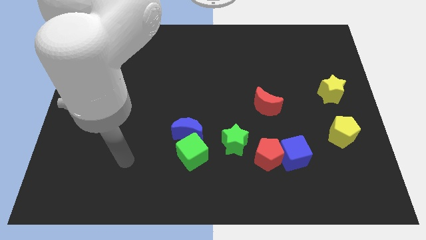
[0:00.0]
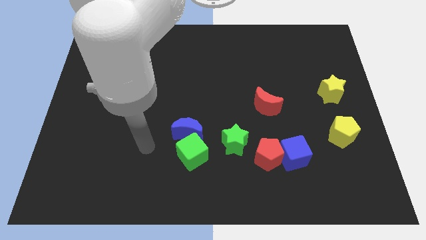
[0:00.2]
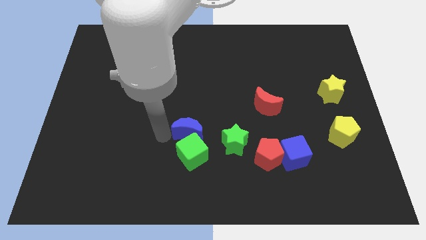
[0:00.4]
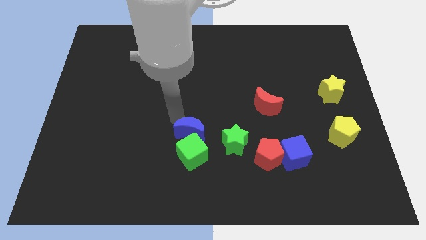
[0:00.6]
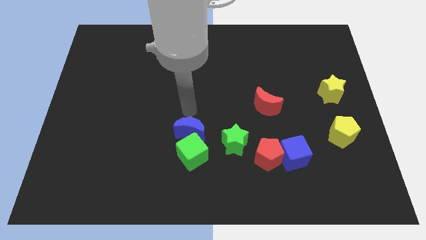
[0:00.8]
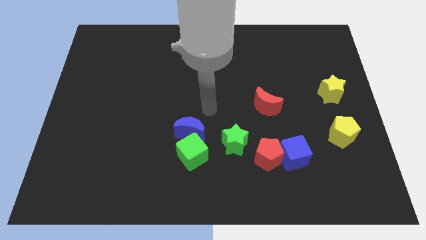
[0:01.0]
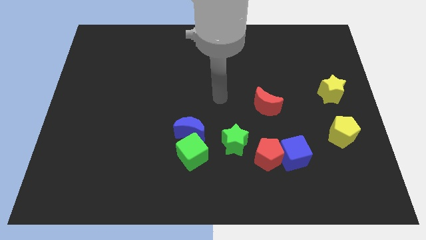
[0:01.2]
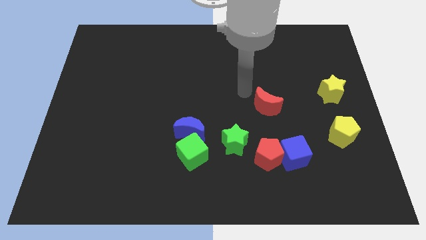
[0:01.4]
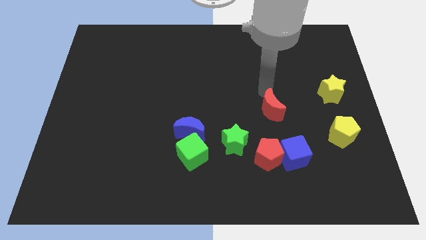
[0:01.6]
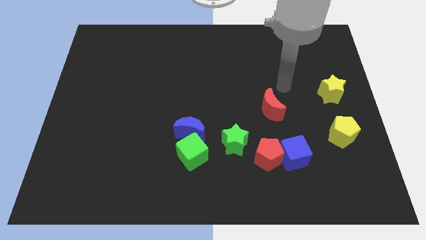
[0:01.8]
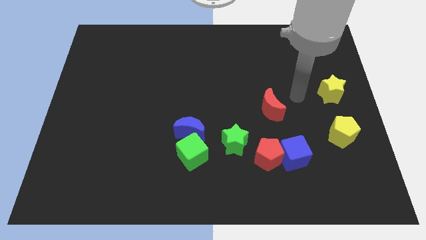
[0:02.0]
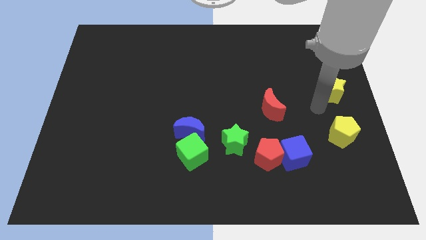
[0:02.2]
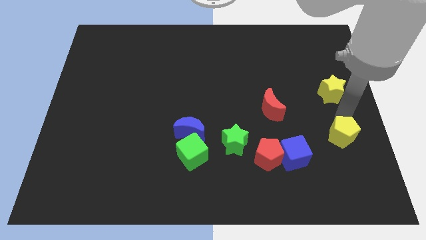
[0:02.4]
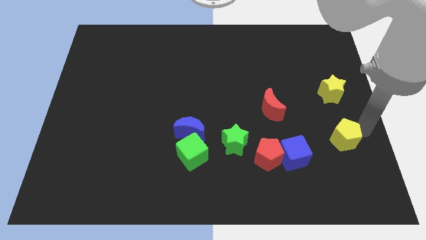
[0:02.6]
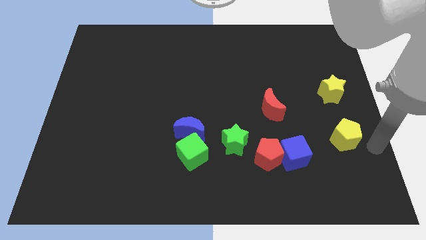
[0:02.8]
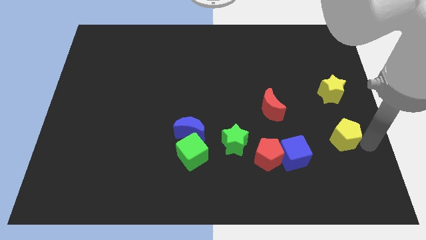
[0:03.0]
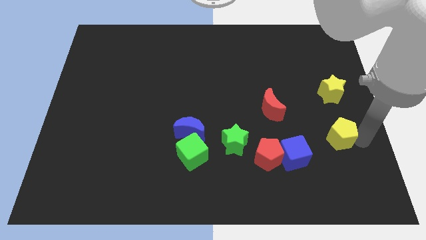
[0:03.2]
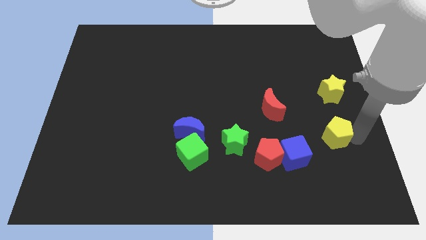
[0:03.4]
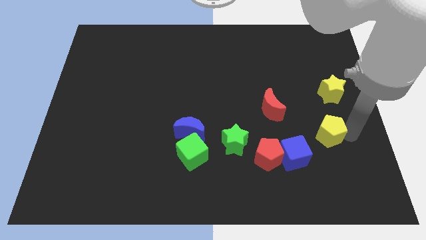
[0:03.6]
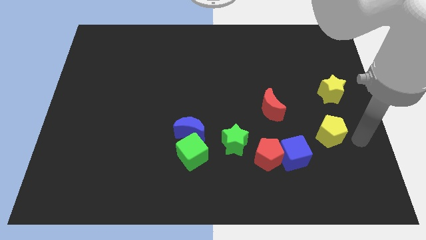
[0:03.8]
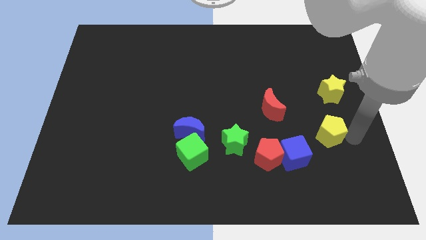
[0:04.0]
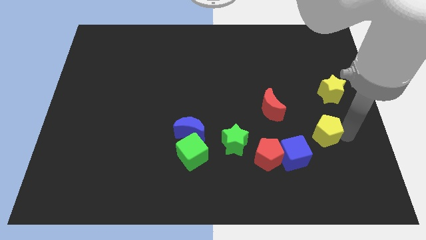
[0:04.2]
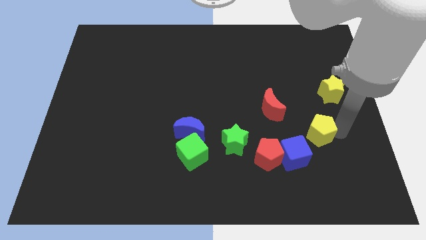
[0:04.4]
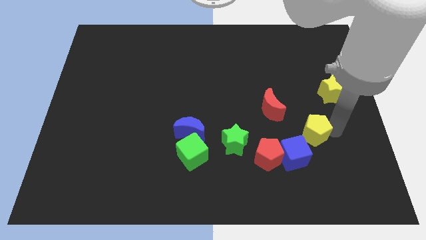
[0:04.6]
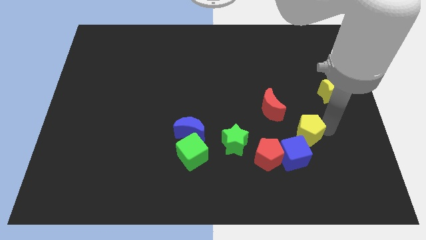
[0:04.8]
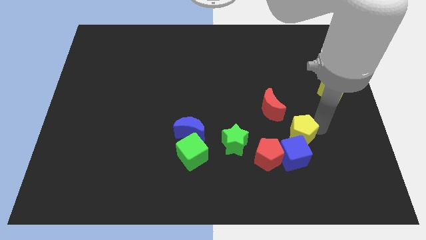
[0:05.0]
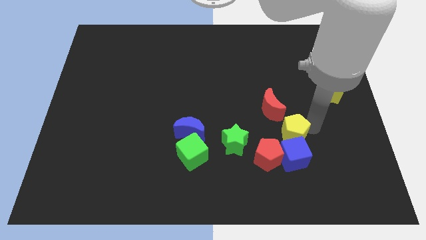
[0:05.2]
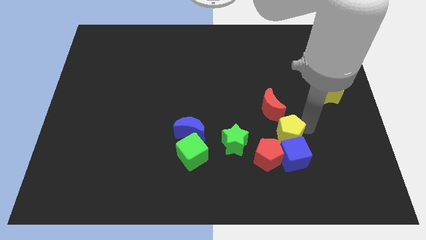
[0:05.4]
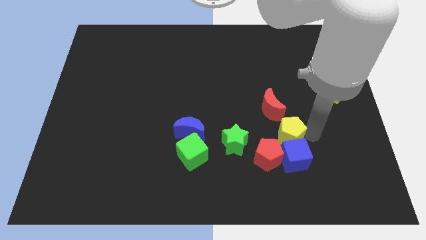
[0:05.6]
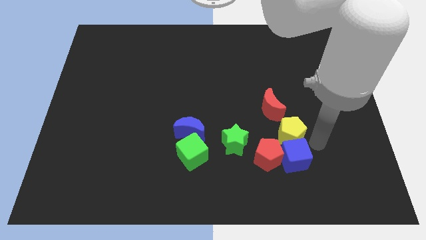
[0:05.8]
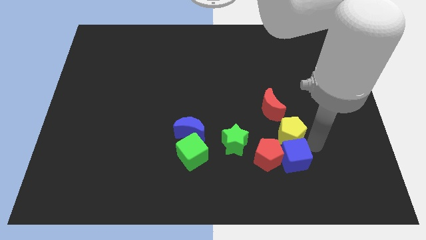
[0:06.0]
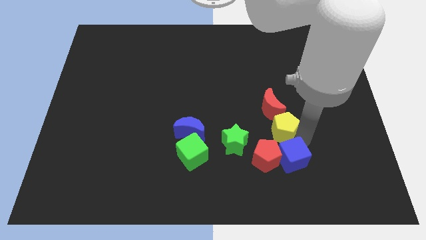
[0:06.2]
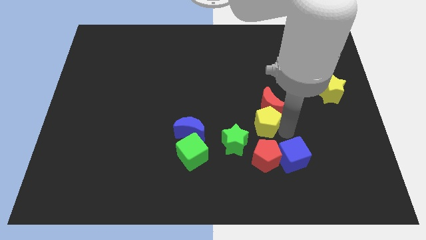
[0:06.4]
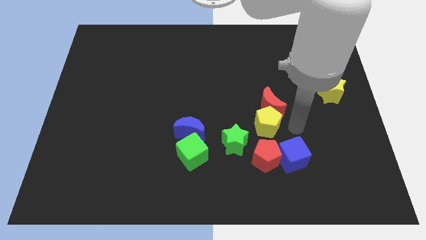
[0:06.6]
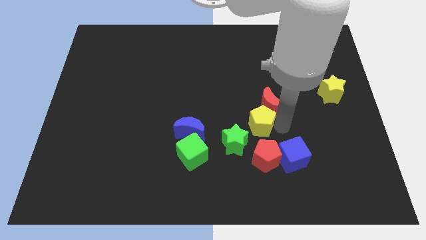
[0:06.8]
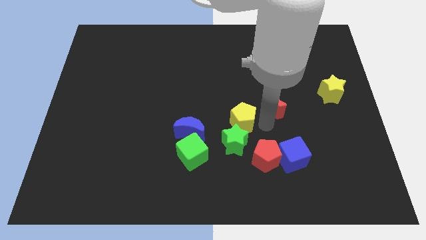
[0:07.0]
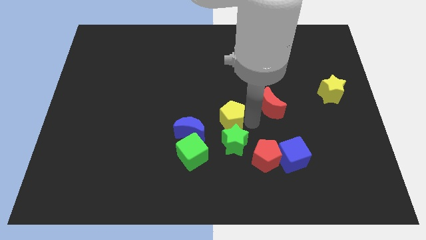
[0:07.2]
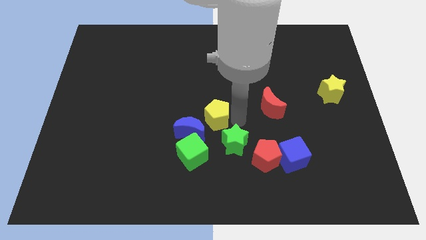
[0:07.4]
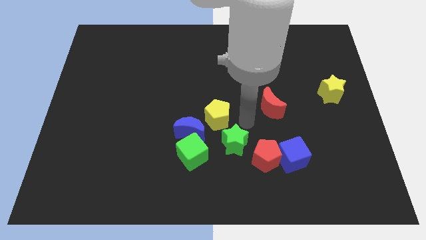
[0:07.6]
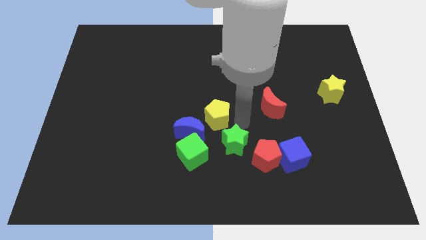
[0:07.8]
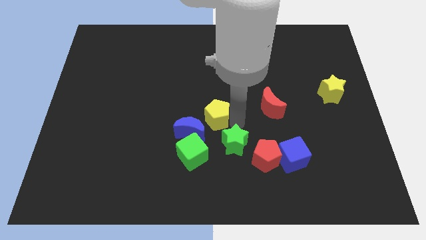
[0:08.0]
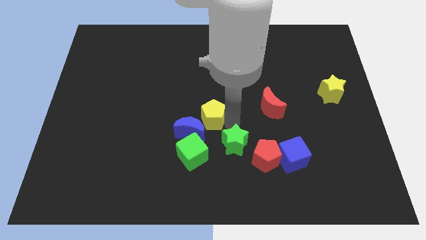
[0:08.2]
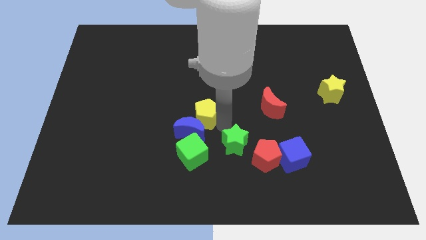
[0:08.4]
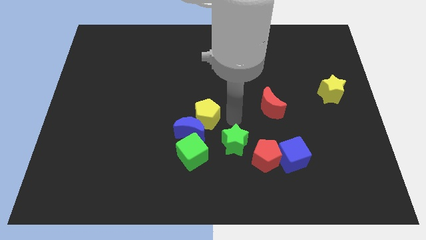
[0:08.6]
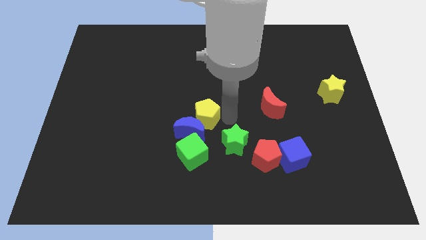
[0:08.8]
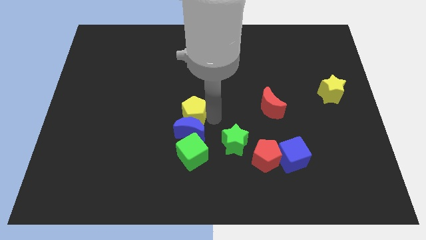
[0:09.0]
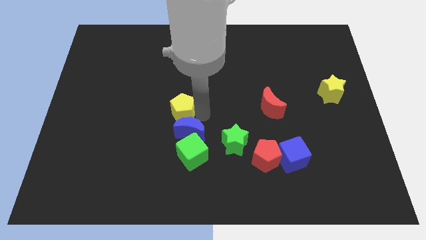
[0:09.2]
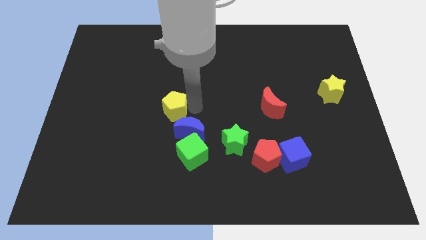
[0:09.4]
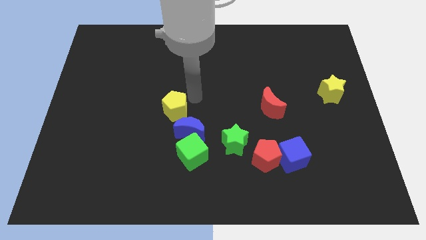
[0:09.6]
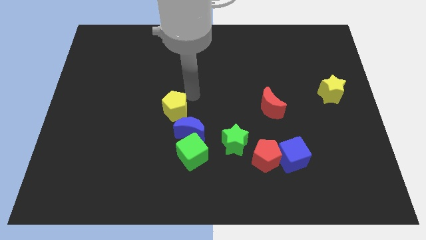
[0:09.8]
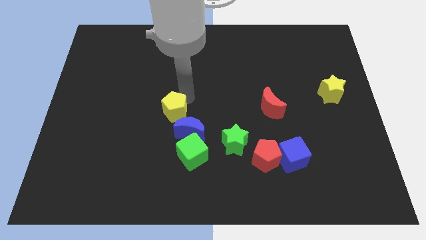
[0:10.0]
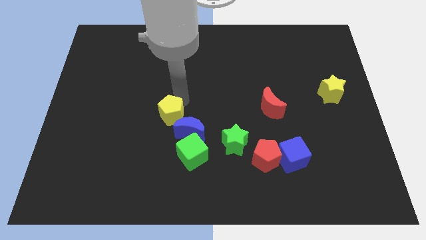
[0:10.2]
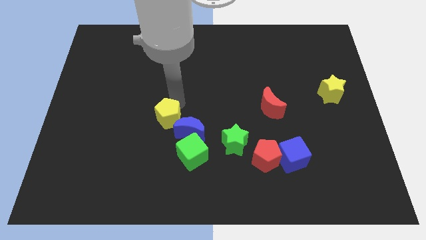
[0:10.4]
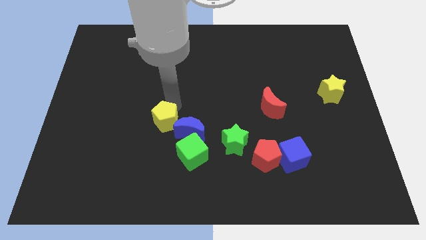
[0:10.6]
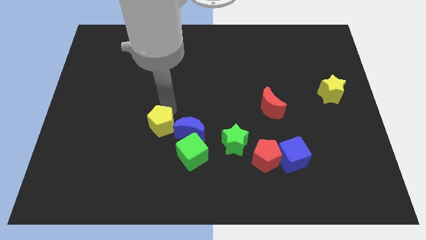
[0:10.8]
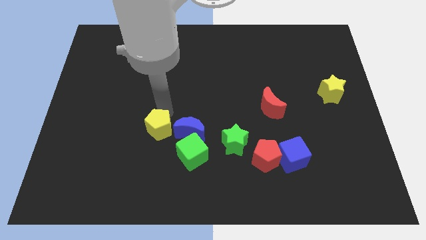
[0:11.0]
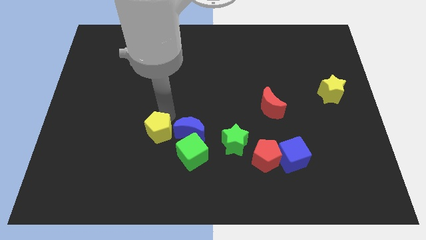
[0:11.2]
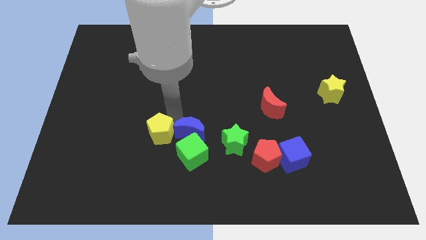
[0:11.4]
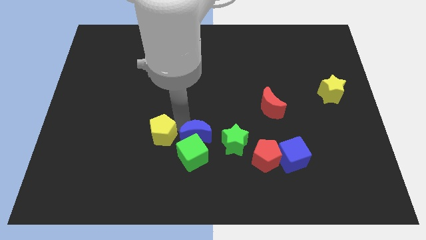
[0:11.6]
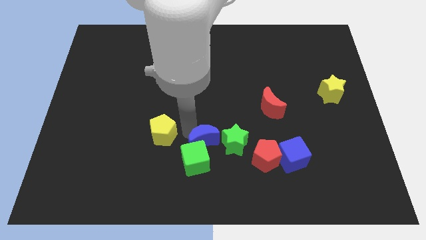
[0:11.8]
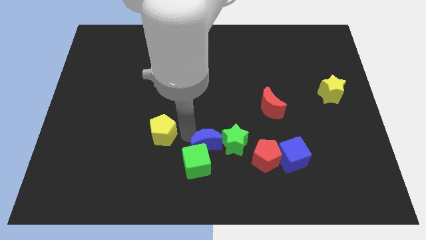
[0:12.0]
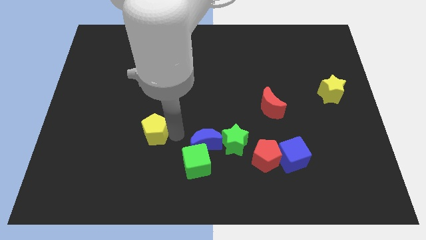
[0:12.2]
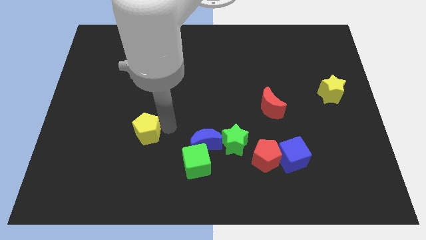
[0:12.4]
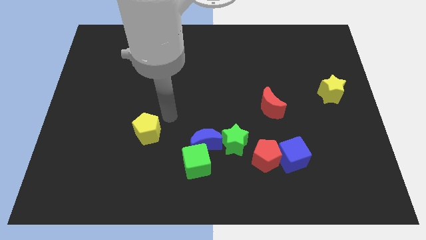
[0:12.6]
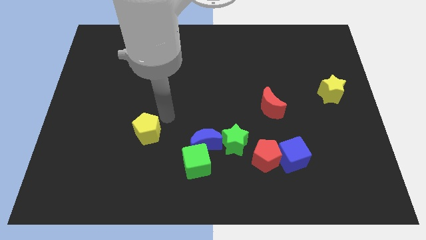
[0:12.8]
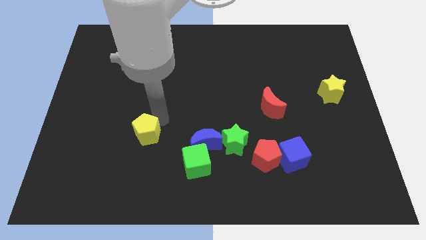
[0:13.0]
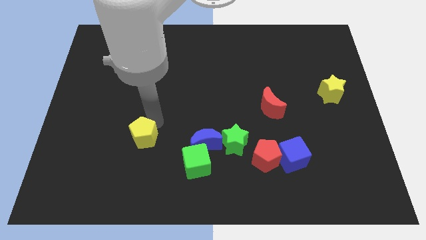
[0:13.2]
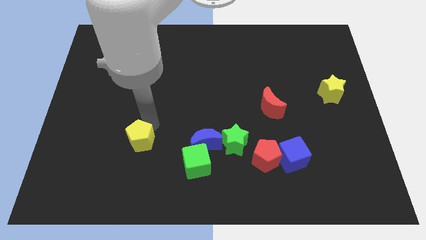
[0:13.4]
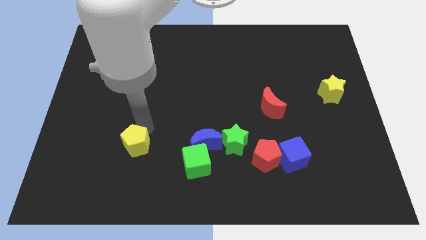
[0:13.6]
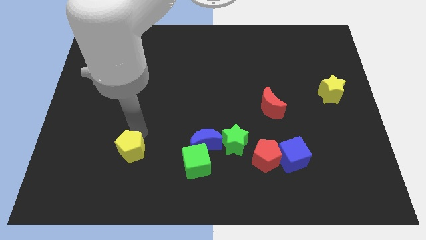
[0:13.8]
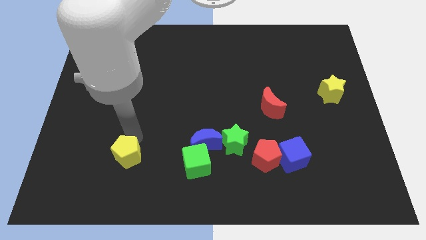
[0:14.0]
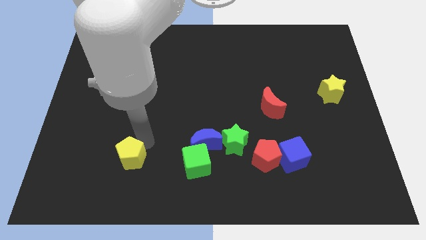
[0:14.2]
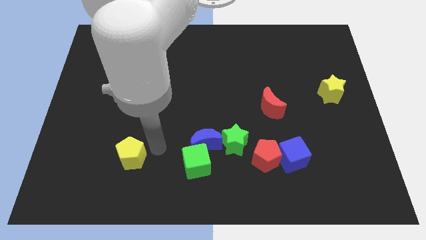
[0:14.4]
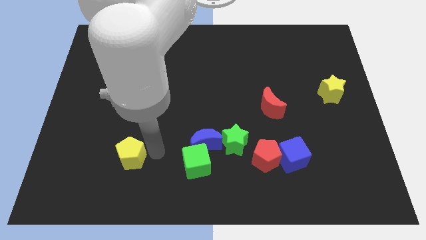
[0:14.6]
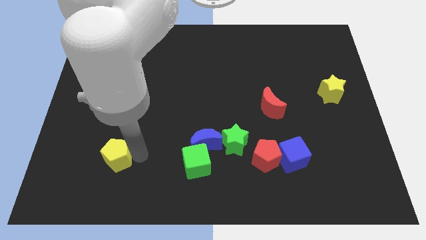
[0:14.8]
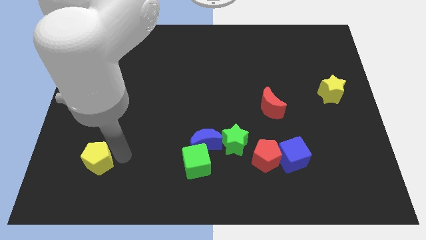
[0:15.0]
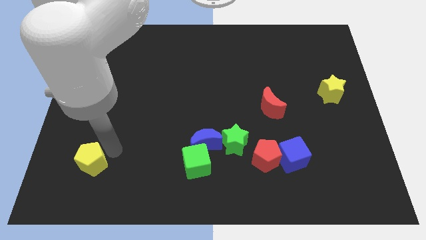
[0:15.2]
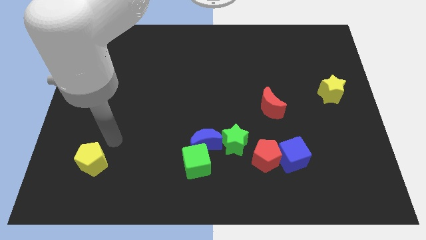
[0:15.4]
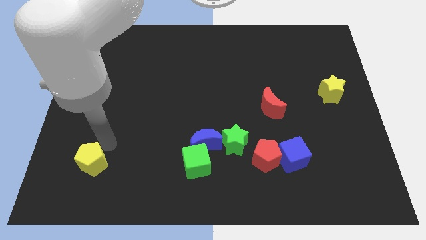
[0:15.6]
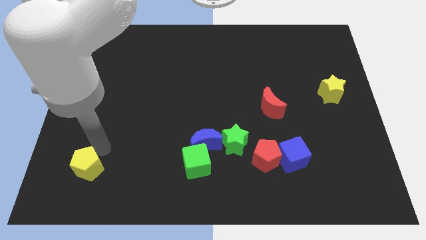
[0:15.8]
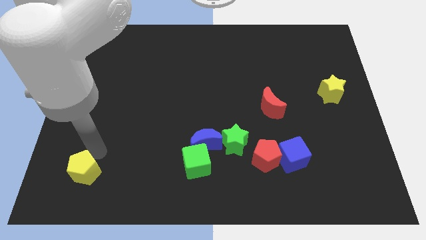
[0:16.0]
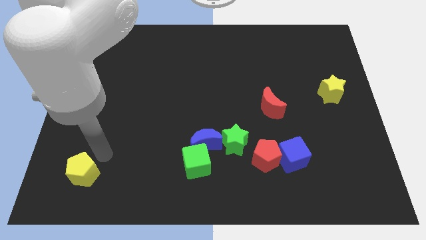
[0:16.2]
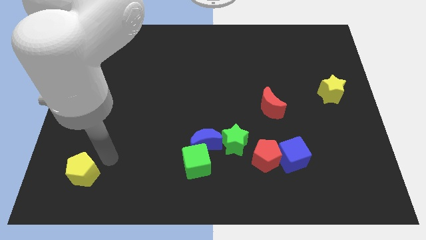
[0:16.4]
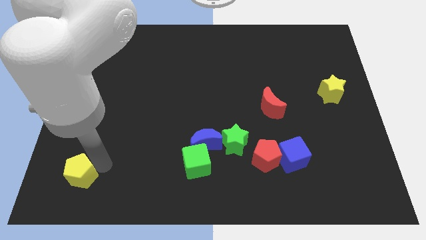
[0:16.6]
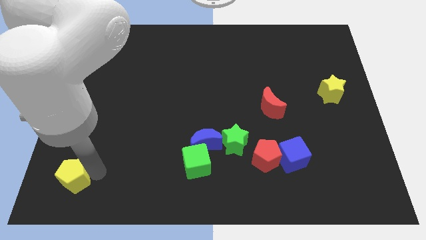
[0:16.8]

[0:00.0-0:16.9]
put the yellow pentagon to the lower left corner
